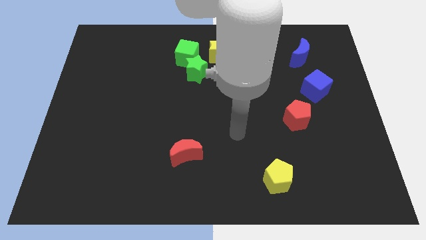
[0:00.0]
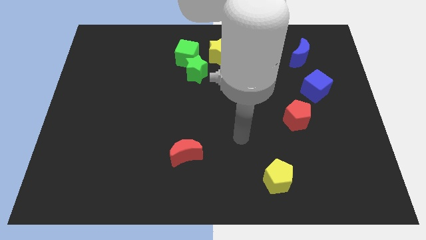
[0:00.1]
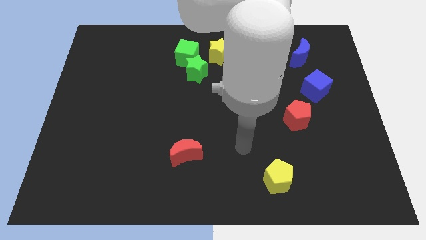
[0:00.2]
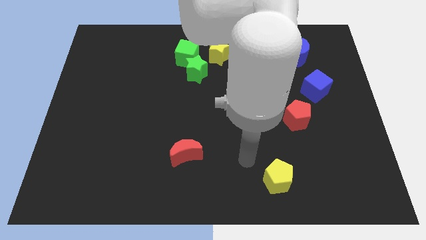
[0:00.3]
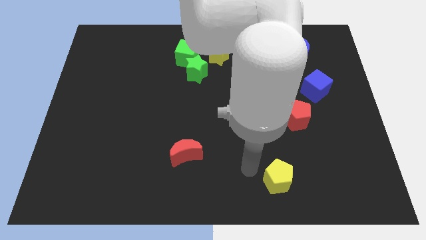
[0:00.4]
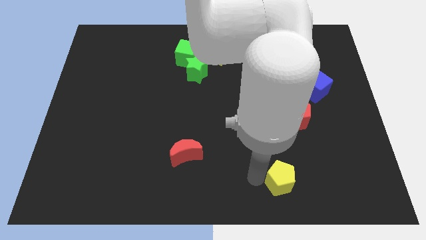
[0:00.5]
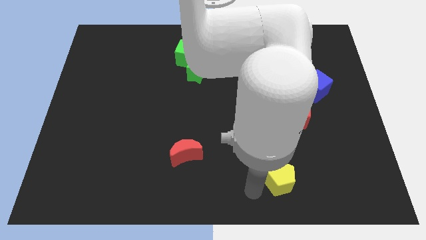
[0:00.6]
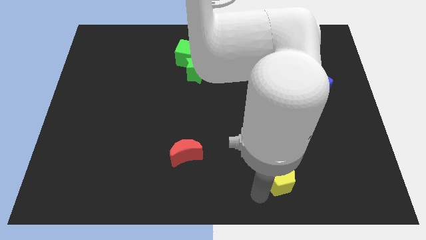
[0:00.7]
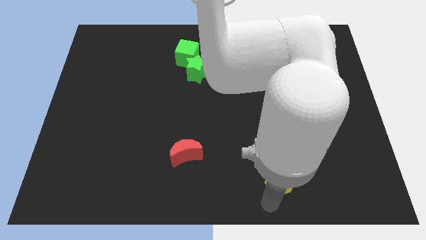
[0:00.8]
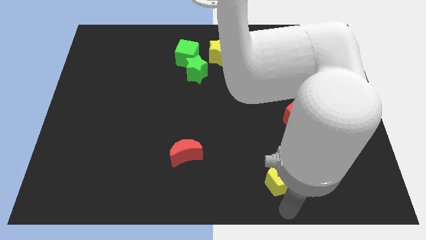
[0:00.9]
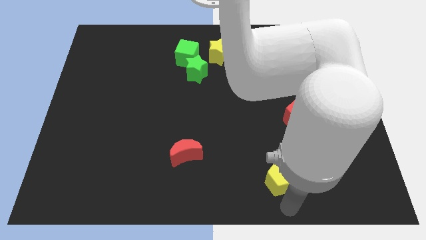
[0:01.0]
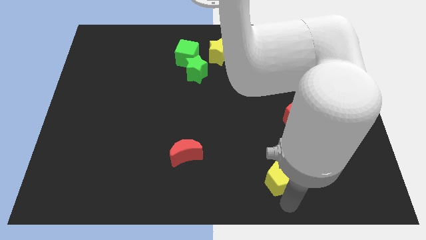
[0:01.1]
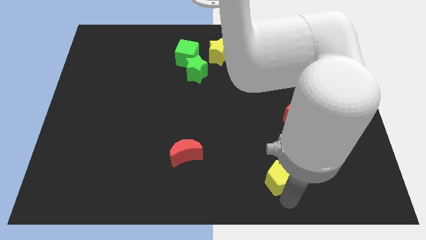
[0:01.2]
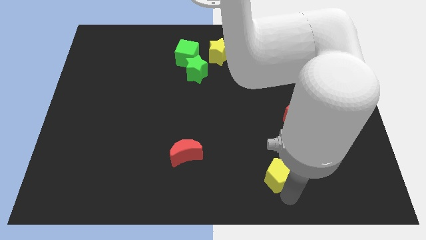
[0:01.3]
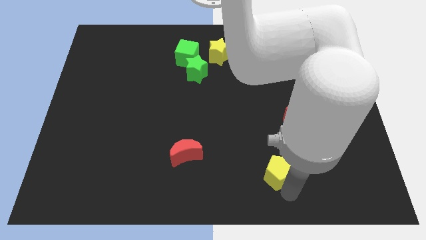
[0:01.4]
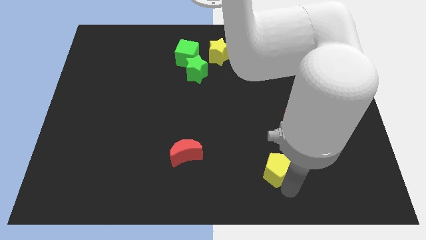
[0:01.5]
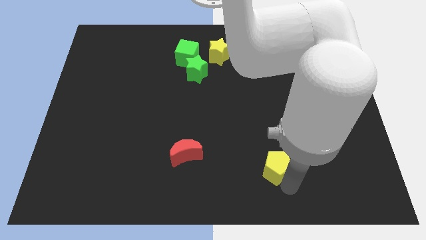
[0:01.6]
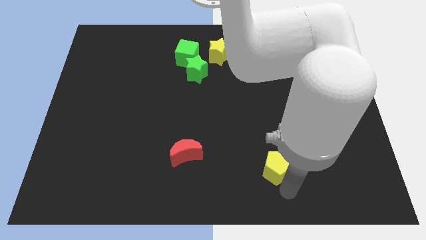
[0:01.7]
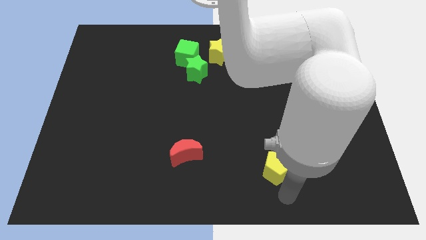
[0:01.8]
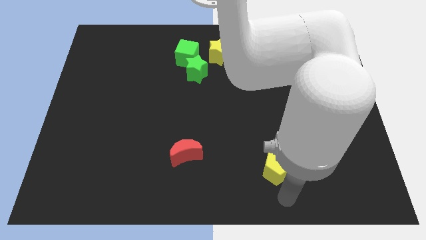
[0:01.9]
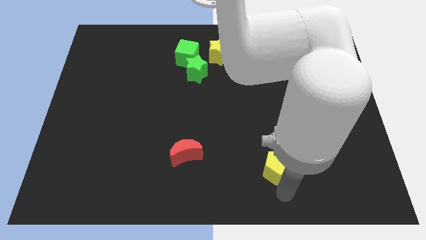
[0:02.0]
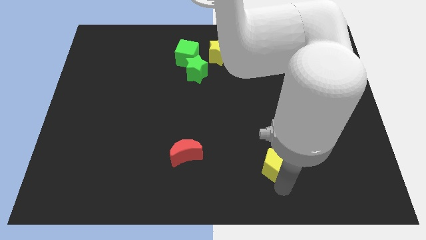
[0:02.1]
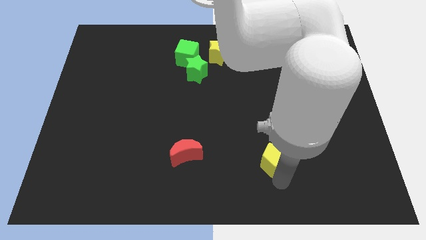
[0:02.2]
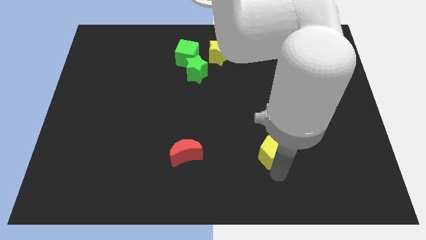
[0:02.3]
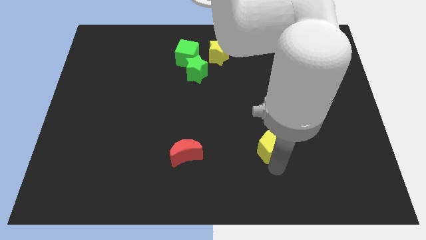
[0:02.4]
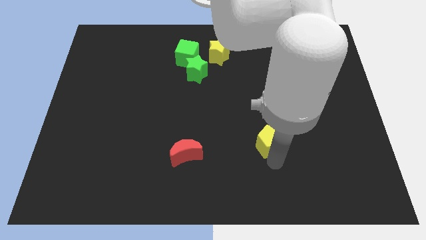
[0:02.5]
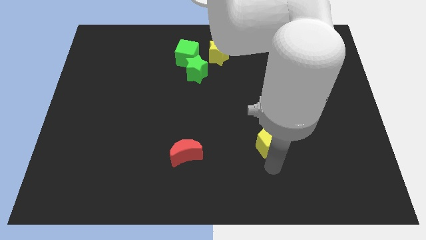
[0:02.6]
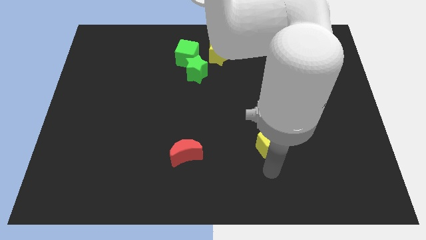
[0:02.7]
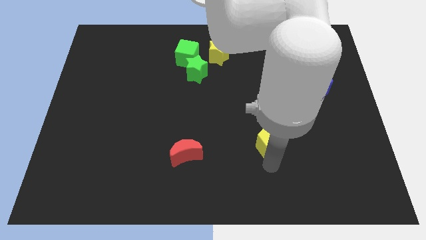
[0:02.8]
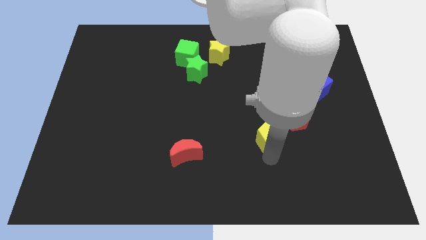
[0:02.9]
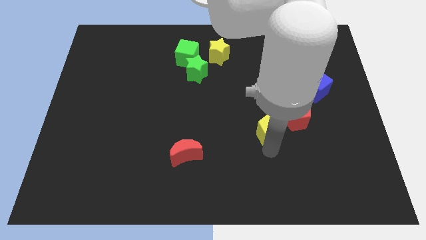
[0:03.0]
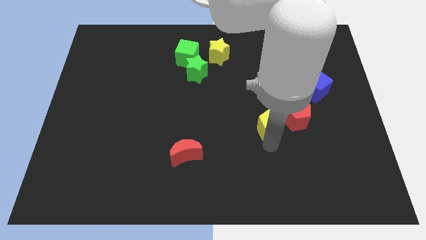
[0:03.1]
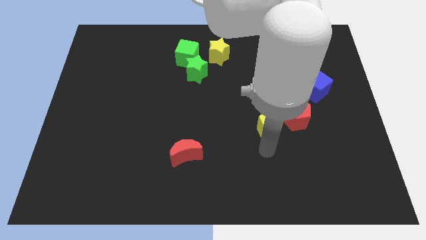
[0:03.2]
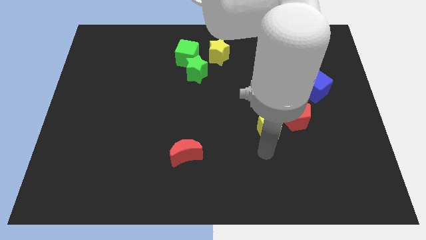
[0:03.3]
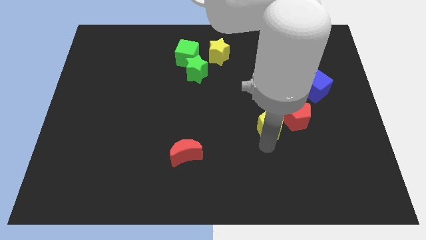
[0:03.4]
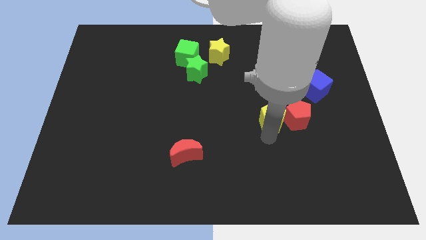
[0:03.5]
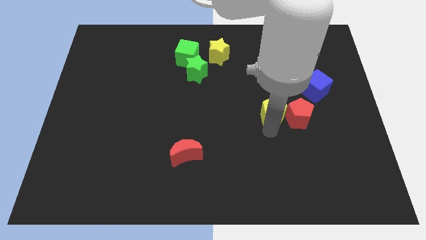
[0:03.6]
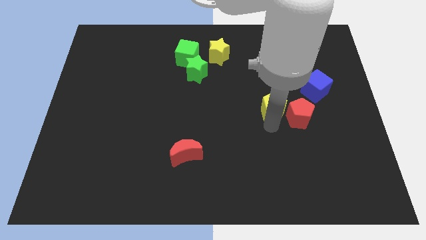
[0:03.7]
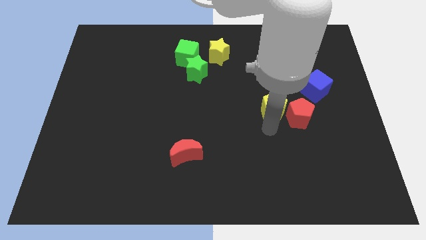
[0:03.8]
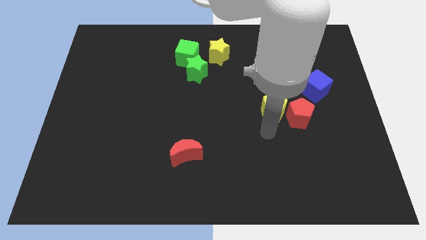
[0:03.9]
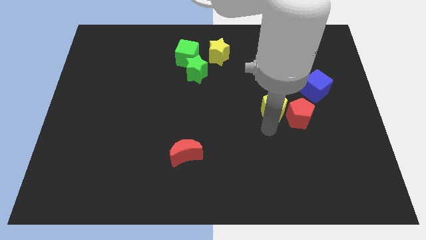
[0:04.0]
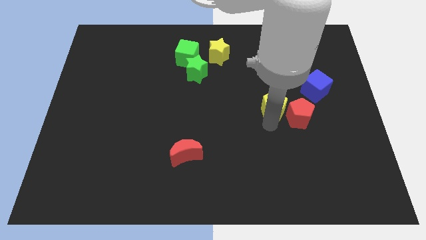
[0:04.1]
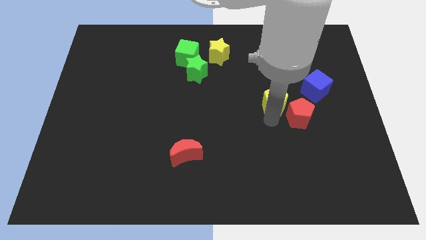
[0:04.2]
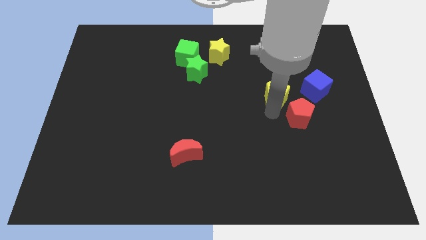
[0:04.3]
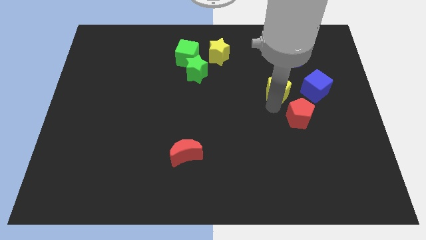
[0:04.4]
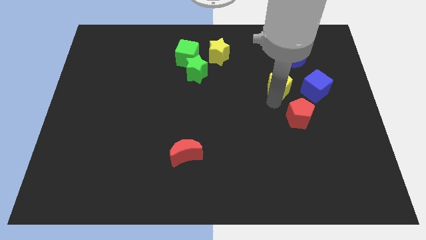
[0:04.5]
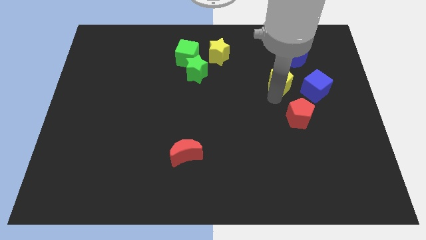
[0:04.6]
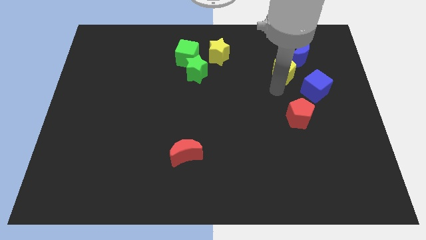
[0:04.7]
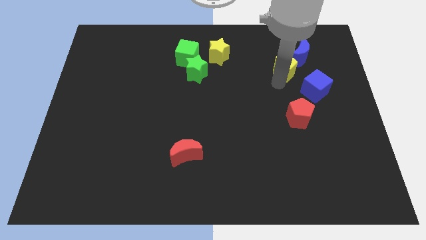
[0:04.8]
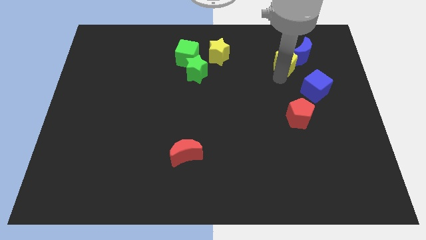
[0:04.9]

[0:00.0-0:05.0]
push the yellow pentagon towards the blue moon

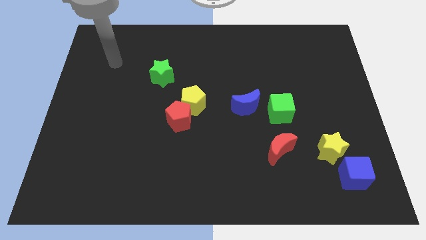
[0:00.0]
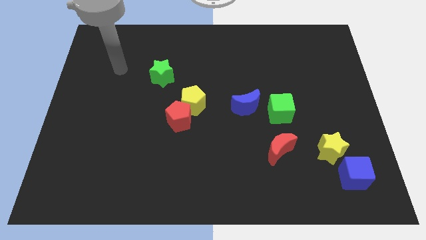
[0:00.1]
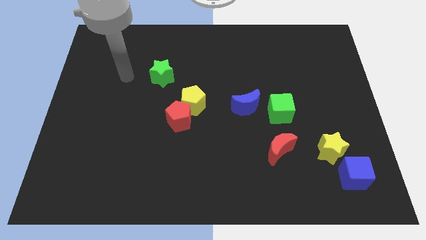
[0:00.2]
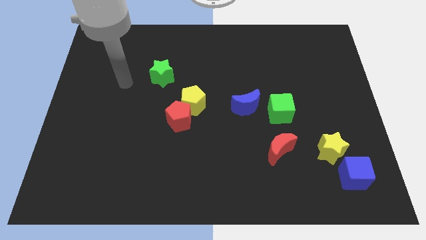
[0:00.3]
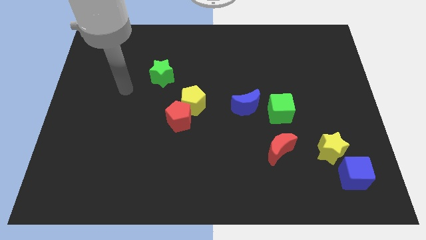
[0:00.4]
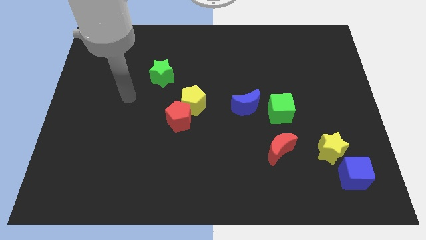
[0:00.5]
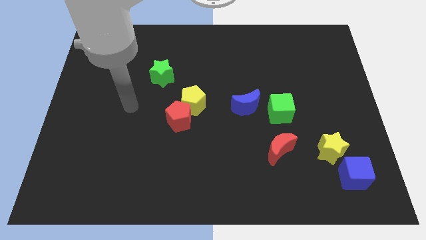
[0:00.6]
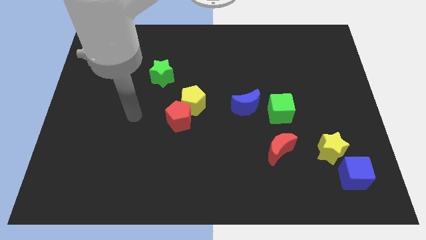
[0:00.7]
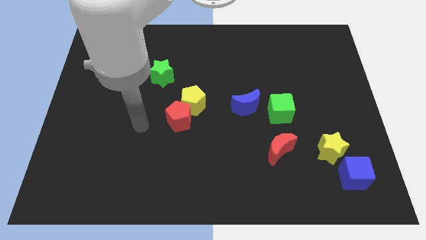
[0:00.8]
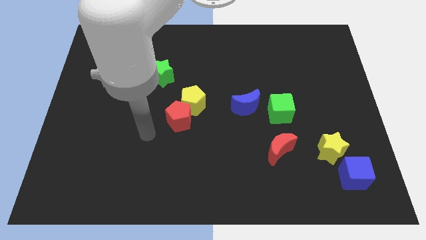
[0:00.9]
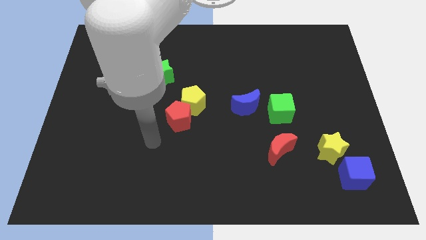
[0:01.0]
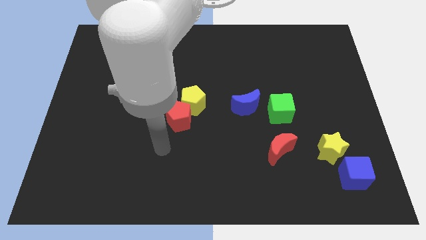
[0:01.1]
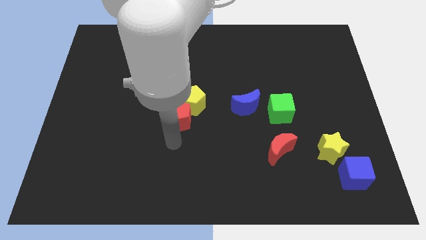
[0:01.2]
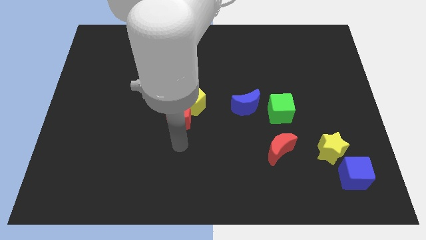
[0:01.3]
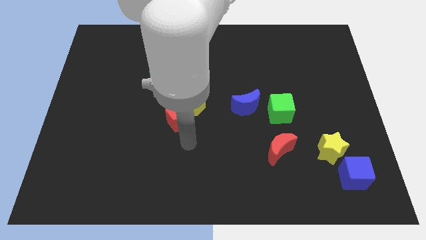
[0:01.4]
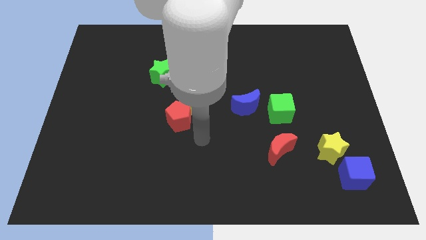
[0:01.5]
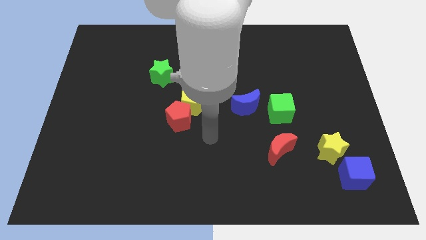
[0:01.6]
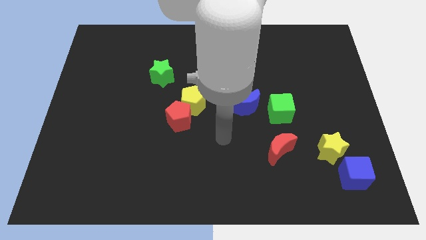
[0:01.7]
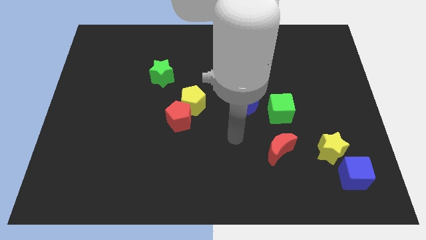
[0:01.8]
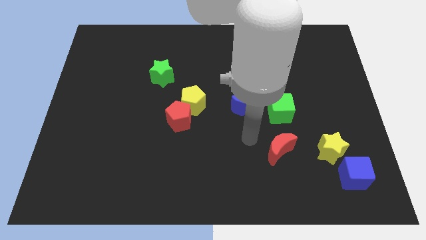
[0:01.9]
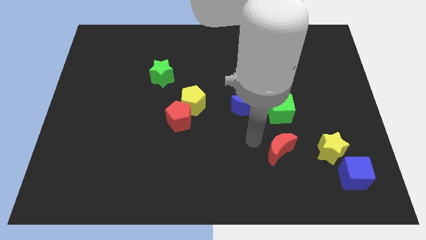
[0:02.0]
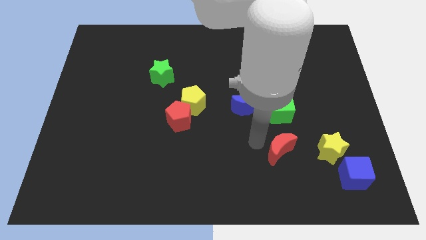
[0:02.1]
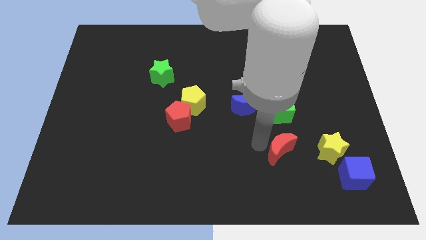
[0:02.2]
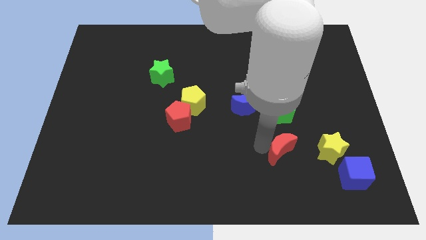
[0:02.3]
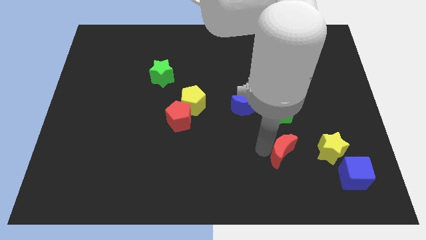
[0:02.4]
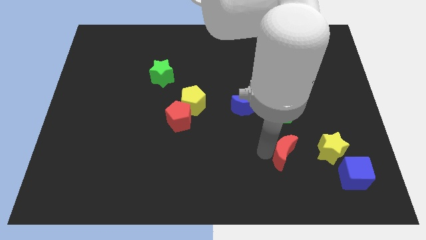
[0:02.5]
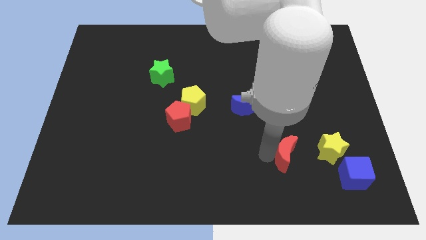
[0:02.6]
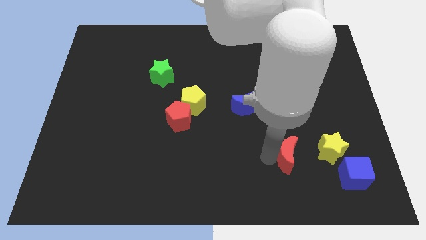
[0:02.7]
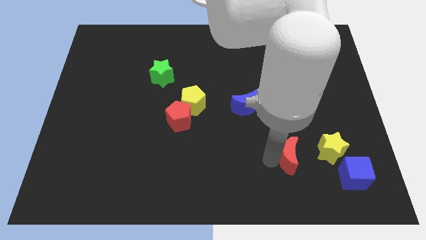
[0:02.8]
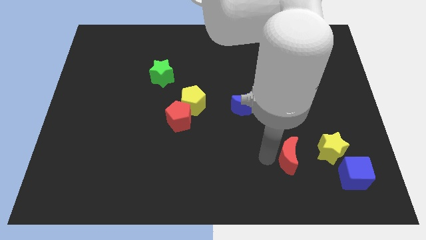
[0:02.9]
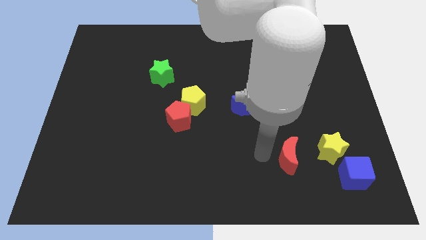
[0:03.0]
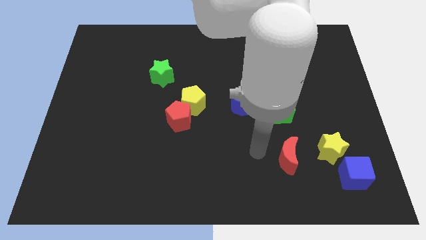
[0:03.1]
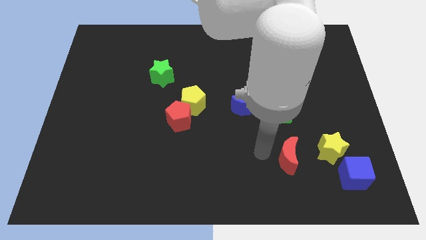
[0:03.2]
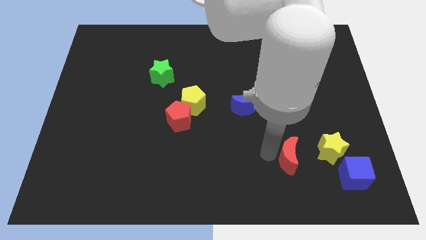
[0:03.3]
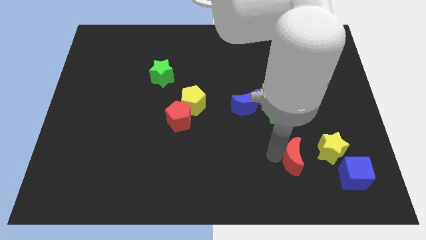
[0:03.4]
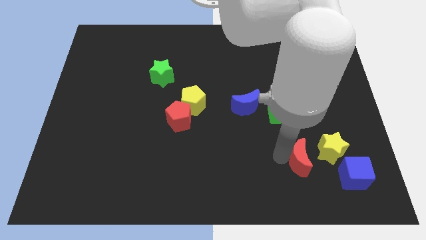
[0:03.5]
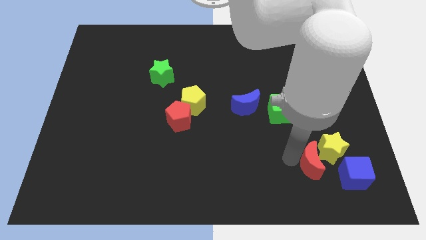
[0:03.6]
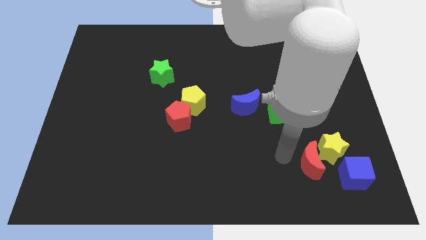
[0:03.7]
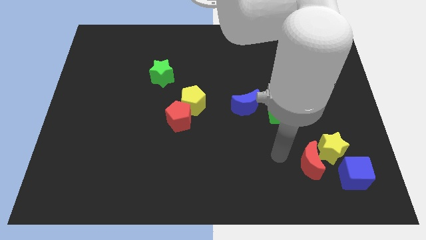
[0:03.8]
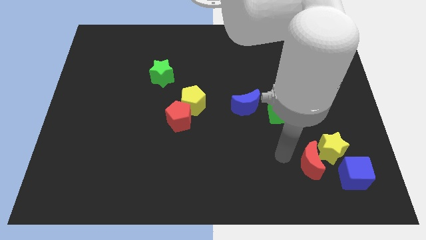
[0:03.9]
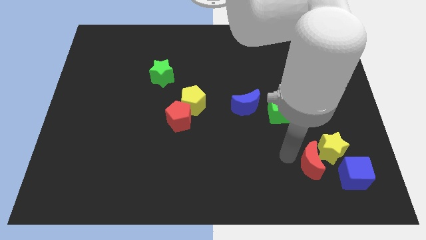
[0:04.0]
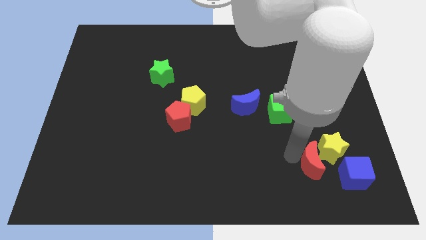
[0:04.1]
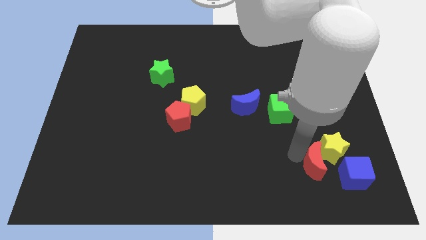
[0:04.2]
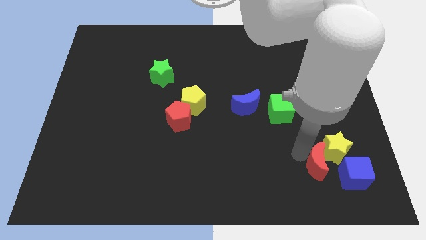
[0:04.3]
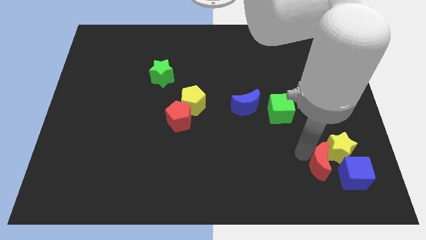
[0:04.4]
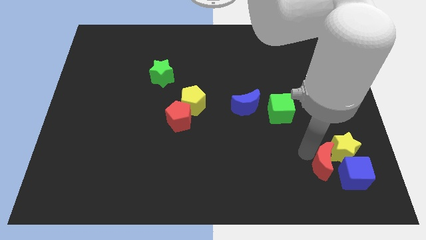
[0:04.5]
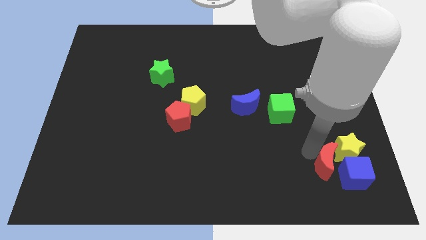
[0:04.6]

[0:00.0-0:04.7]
slide the red moon to the blue cube
